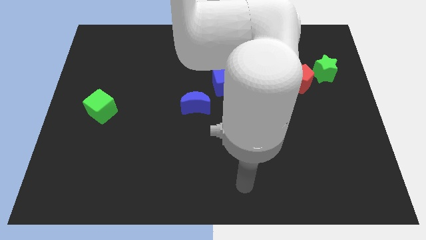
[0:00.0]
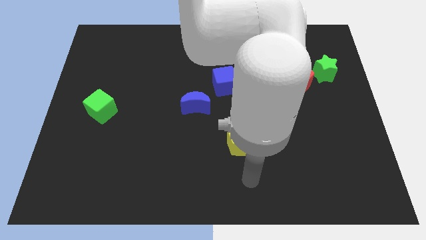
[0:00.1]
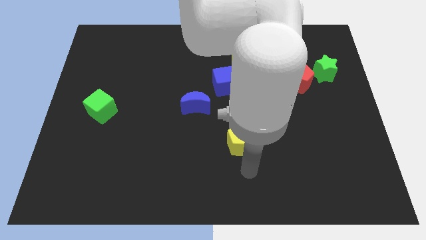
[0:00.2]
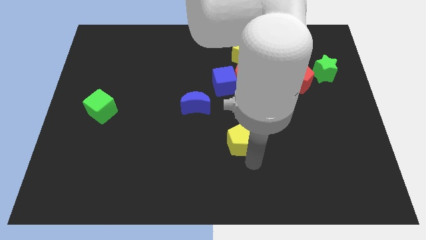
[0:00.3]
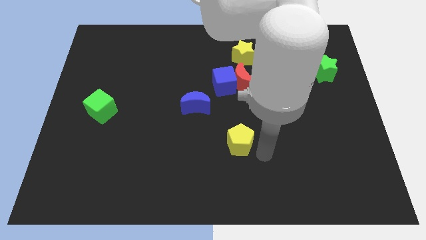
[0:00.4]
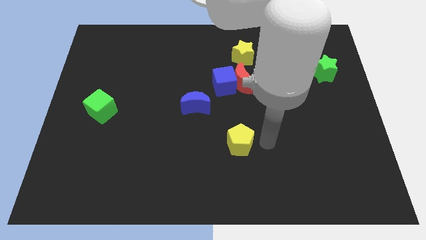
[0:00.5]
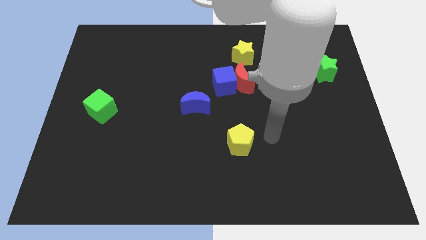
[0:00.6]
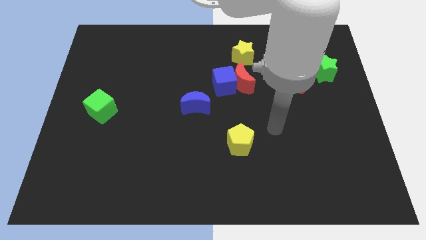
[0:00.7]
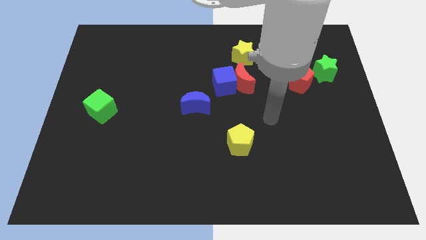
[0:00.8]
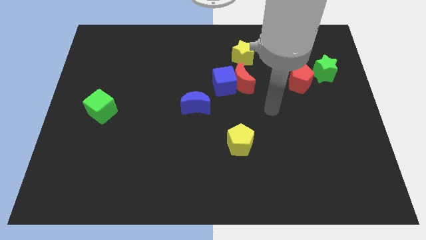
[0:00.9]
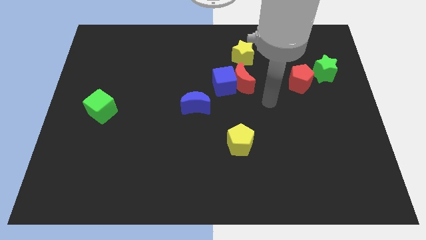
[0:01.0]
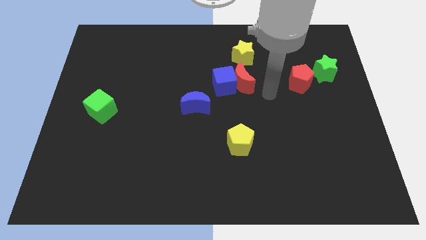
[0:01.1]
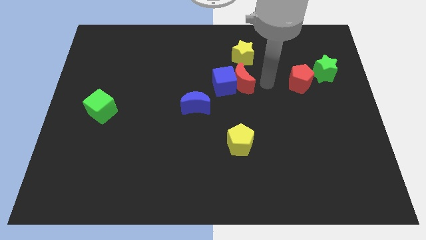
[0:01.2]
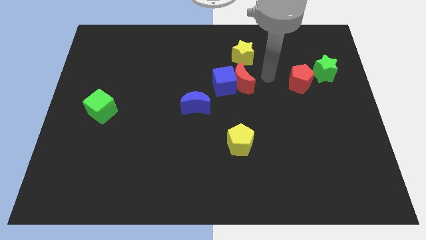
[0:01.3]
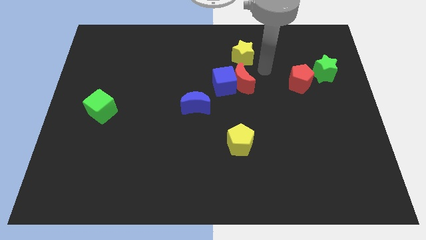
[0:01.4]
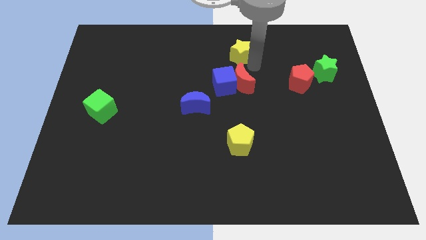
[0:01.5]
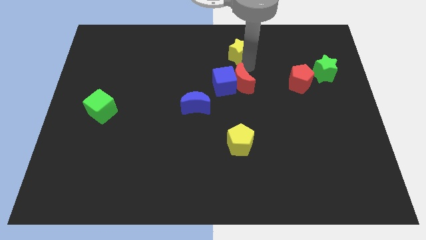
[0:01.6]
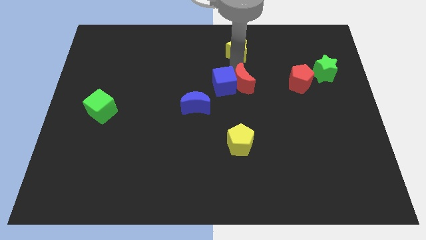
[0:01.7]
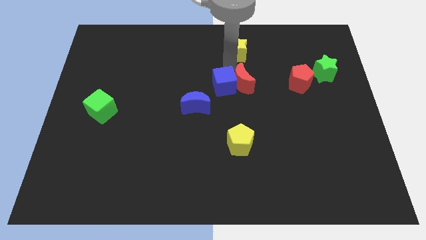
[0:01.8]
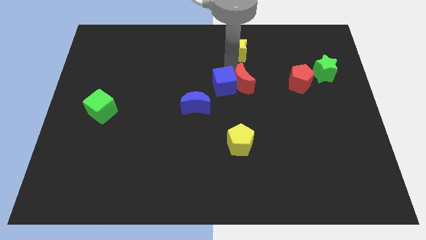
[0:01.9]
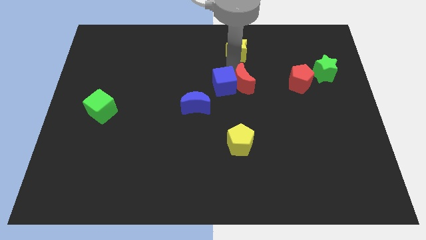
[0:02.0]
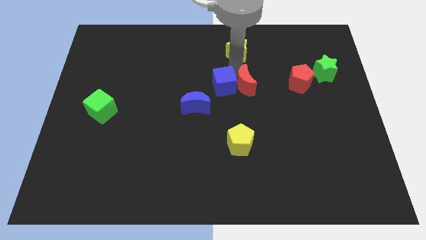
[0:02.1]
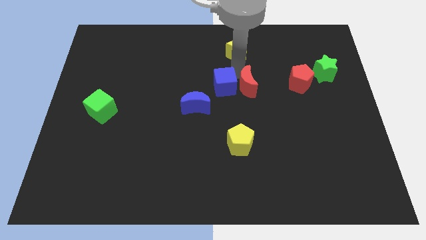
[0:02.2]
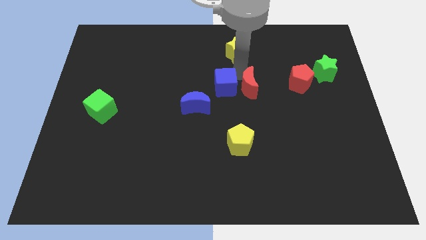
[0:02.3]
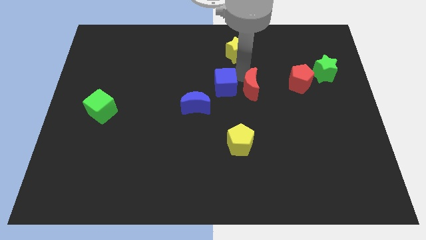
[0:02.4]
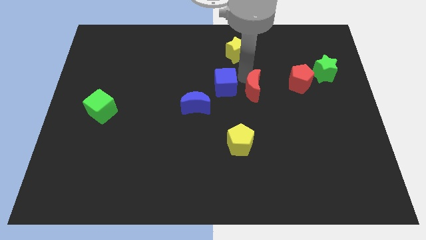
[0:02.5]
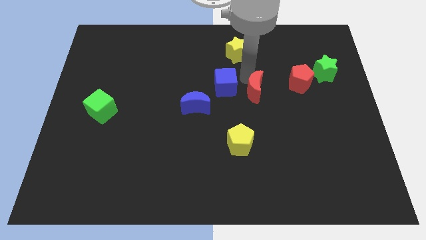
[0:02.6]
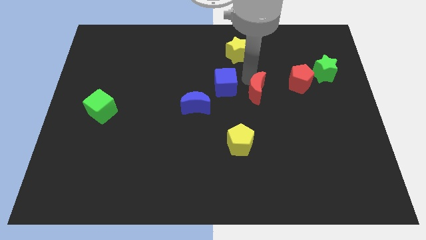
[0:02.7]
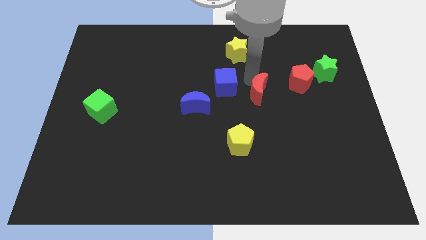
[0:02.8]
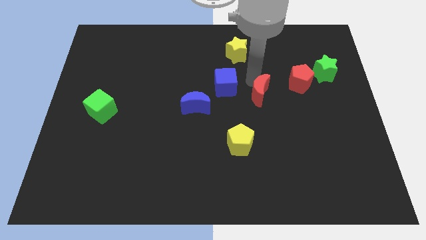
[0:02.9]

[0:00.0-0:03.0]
pull the red moon apart from the blue cube and yellow star

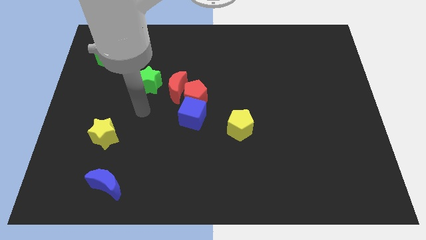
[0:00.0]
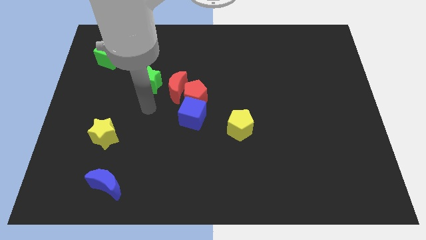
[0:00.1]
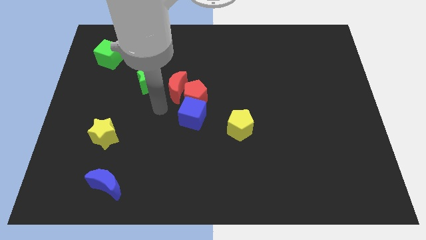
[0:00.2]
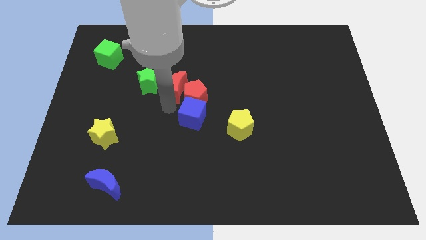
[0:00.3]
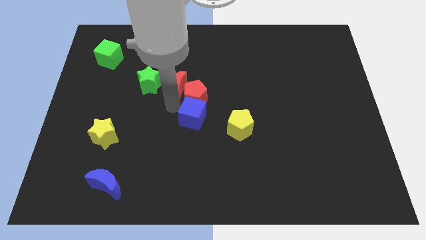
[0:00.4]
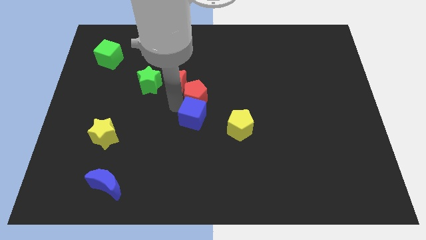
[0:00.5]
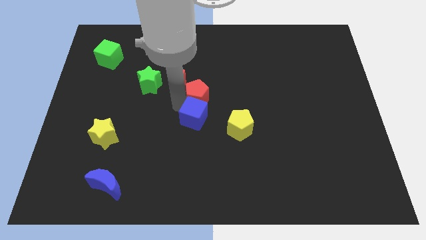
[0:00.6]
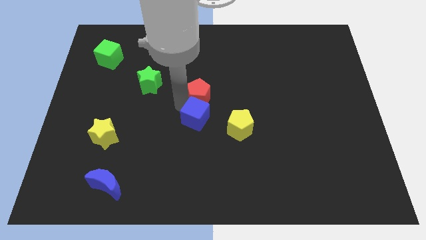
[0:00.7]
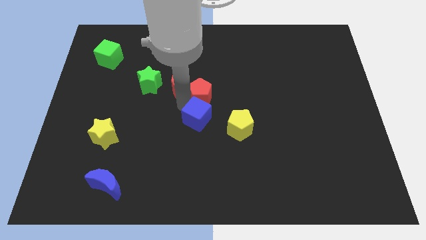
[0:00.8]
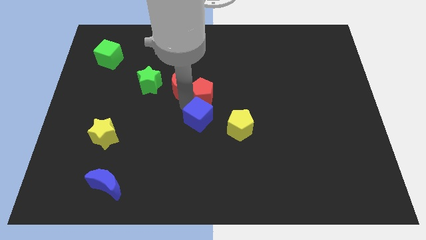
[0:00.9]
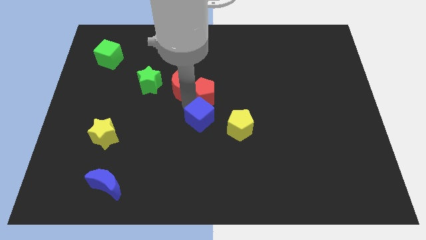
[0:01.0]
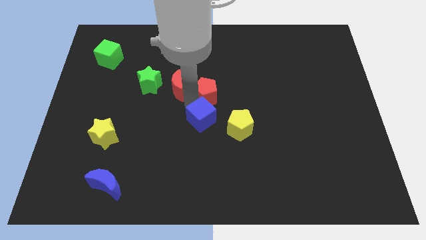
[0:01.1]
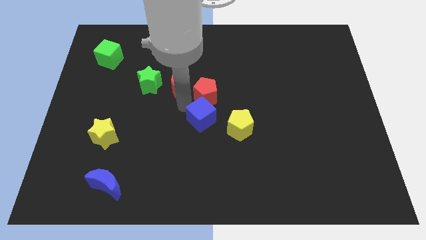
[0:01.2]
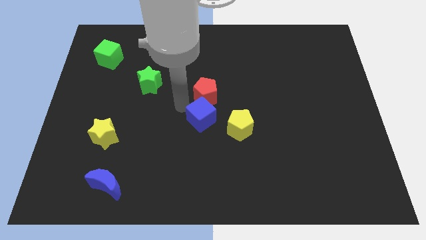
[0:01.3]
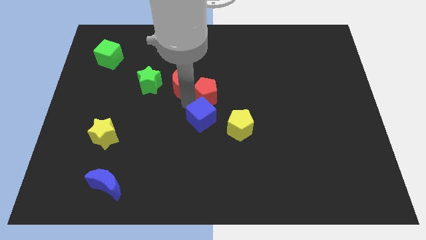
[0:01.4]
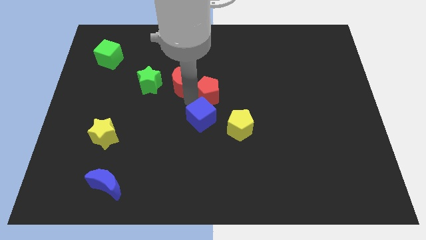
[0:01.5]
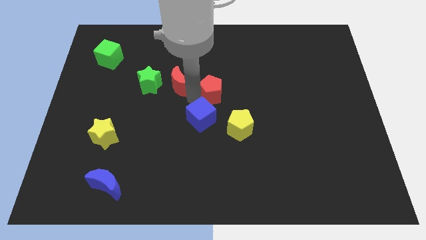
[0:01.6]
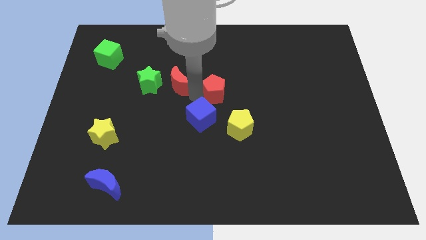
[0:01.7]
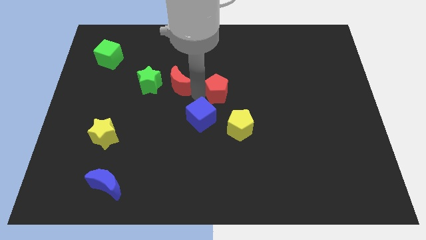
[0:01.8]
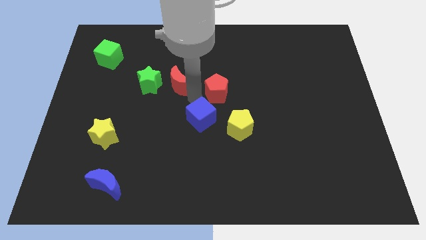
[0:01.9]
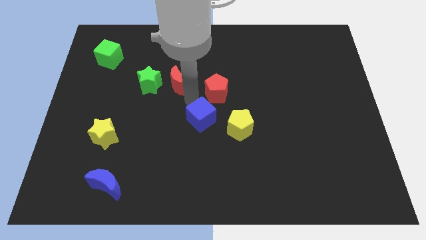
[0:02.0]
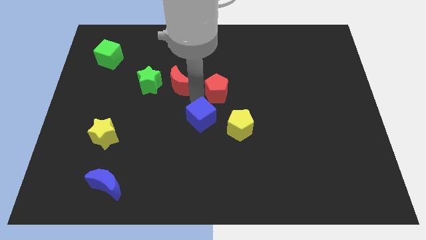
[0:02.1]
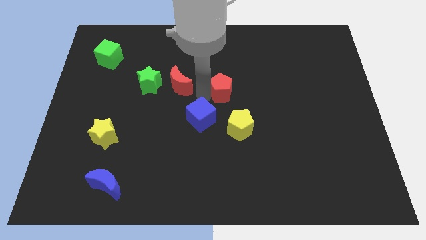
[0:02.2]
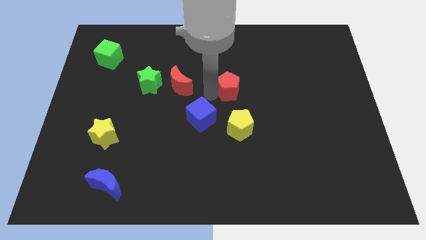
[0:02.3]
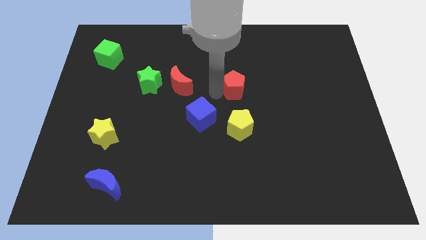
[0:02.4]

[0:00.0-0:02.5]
separate the red pentagon from the red moon and blue cube

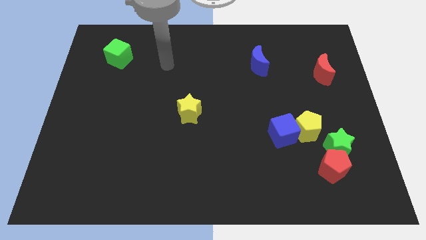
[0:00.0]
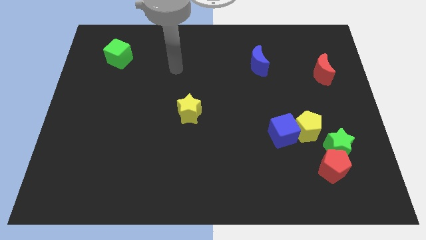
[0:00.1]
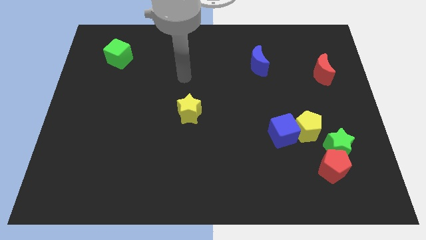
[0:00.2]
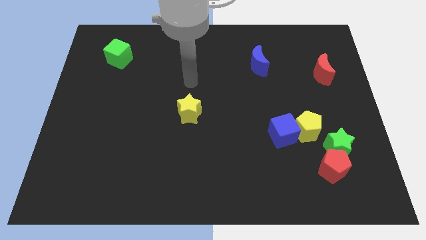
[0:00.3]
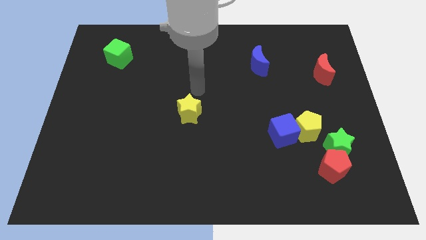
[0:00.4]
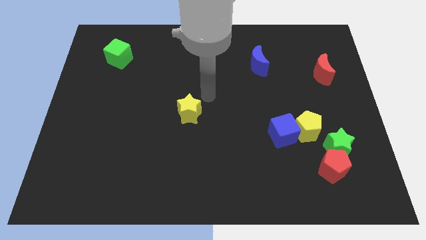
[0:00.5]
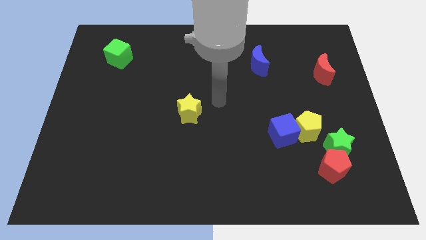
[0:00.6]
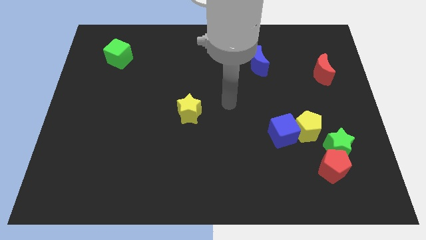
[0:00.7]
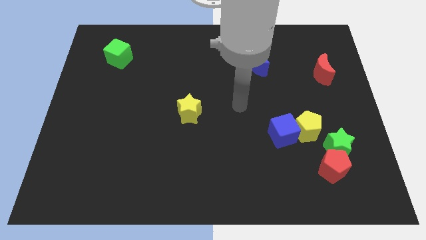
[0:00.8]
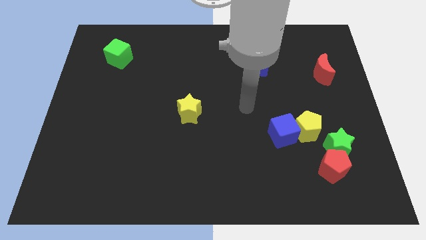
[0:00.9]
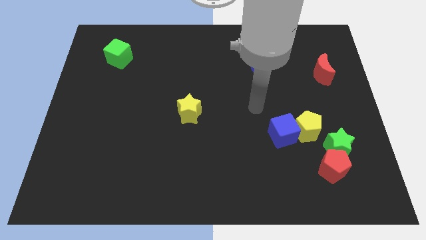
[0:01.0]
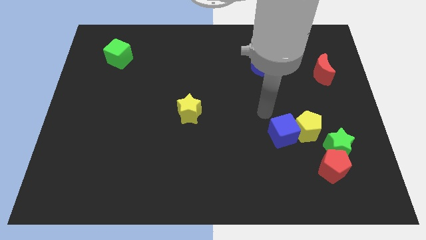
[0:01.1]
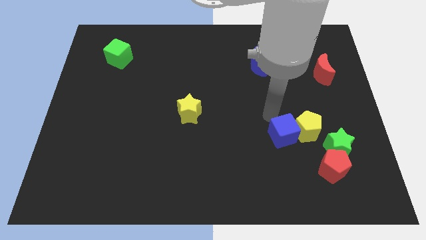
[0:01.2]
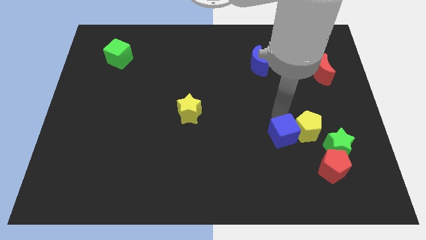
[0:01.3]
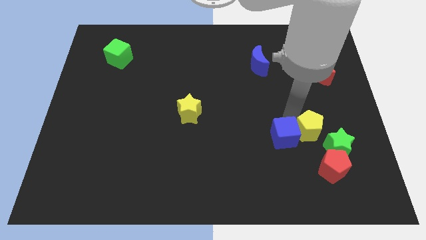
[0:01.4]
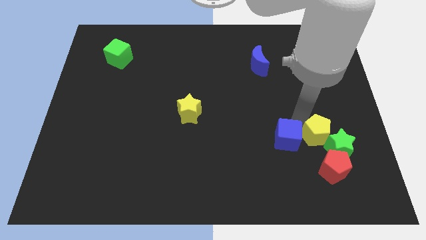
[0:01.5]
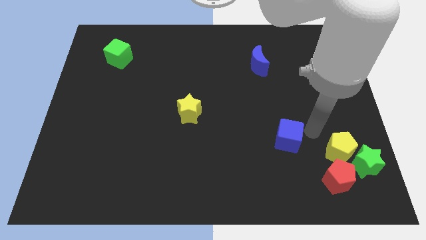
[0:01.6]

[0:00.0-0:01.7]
move the blue cube away from the yellow pentagon

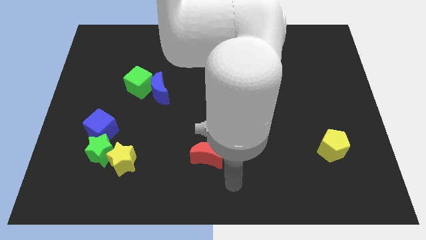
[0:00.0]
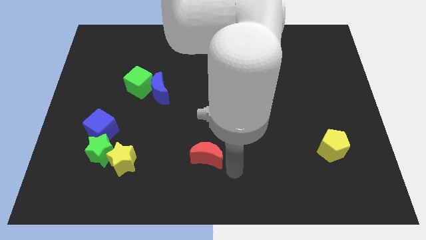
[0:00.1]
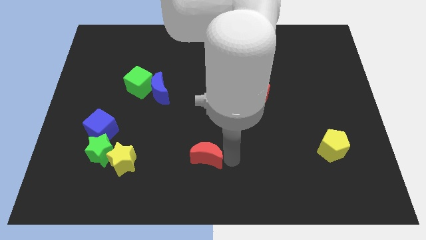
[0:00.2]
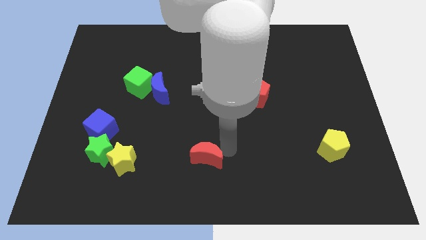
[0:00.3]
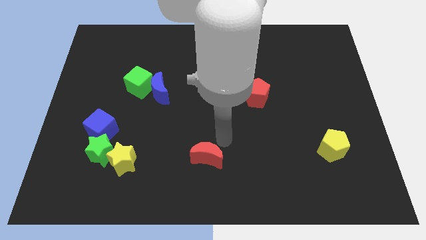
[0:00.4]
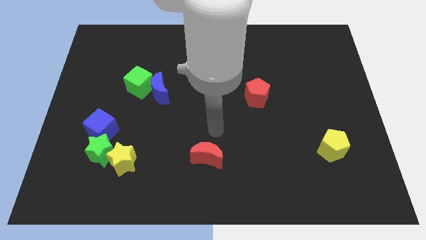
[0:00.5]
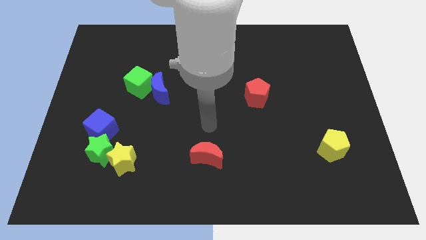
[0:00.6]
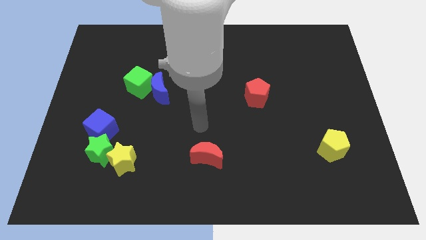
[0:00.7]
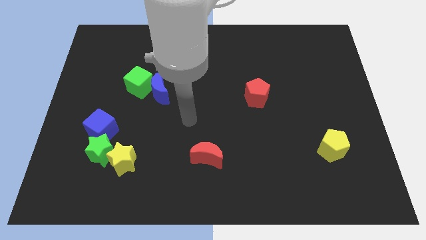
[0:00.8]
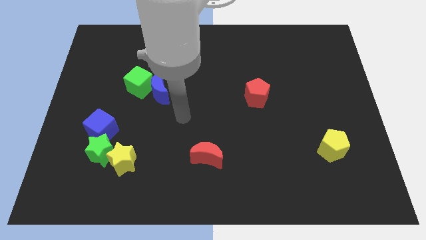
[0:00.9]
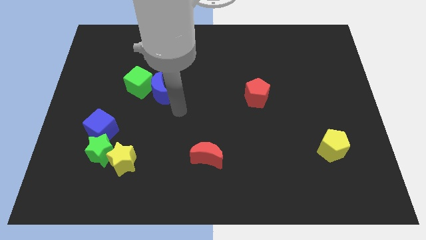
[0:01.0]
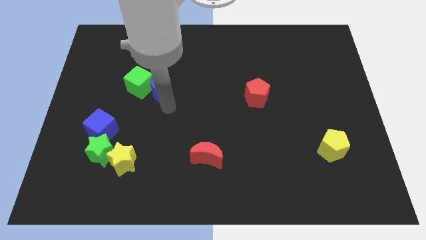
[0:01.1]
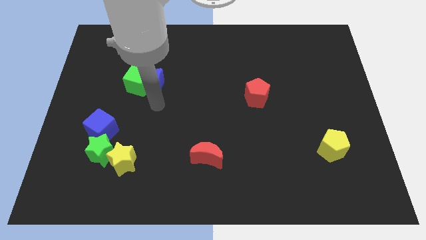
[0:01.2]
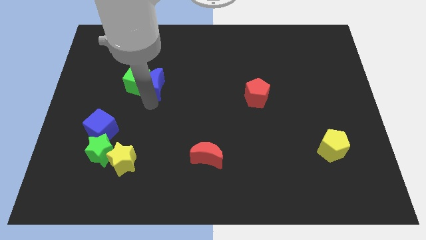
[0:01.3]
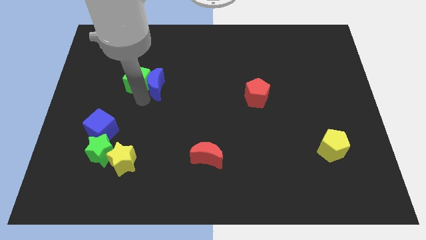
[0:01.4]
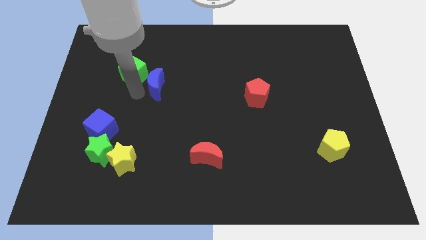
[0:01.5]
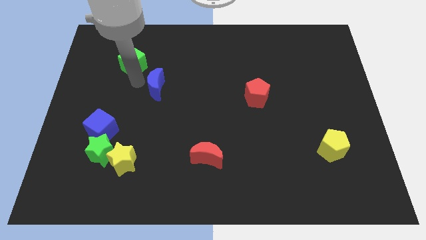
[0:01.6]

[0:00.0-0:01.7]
move the blue moon away from the green cube

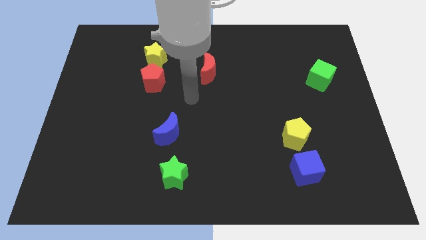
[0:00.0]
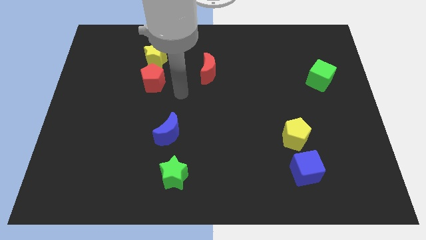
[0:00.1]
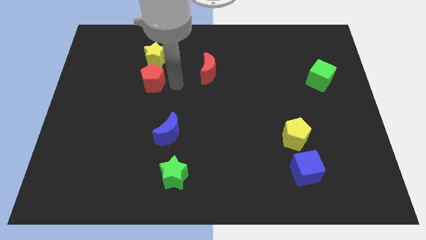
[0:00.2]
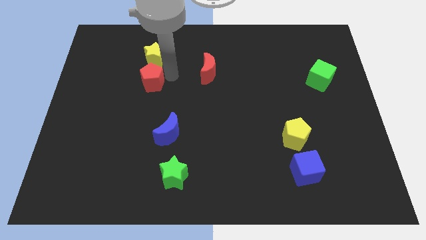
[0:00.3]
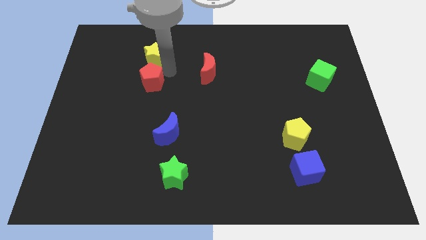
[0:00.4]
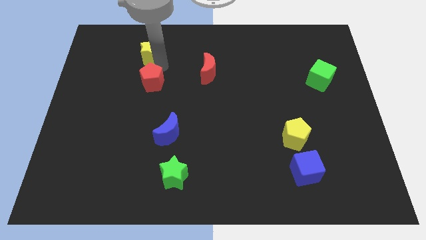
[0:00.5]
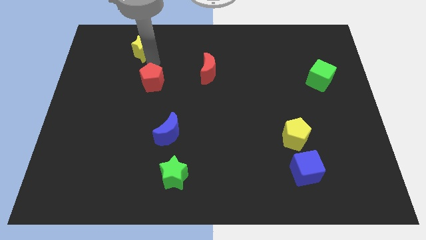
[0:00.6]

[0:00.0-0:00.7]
separate the red pentagon from the yellow star
